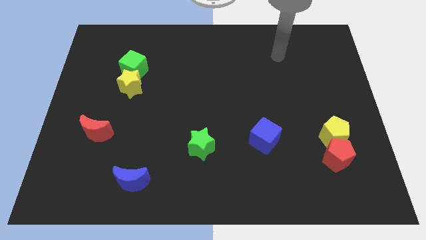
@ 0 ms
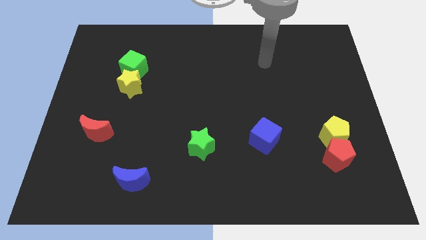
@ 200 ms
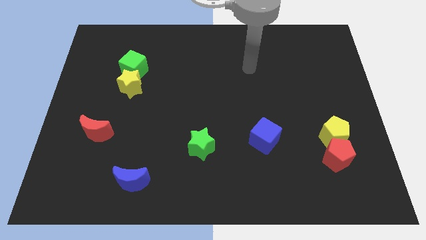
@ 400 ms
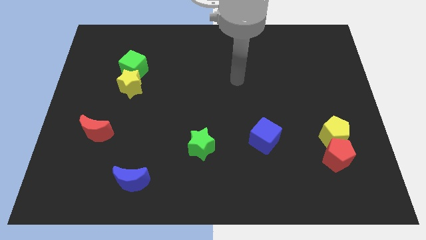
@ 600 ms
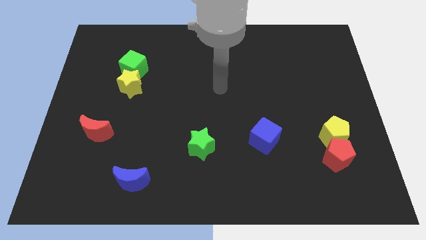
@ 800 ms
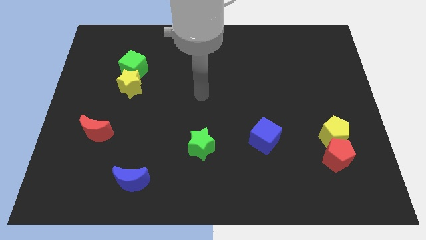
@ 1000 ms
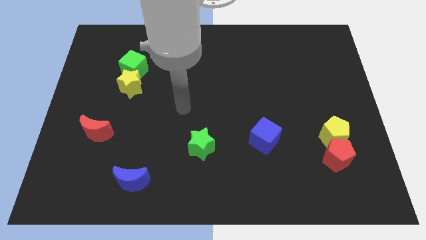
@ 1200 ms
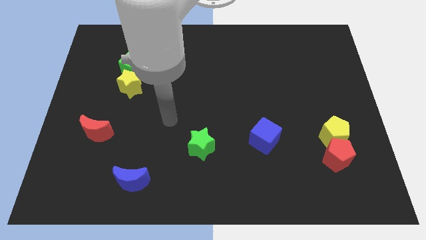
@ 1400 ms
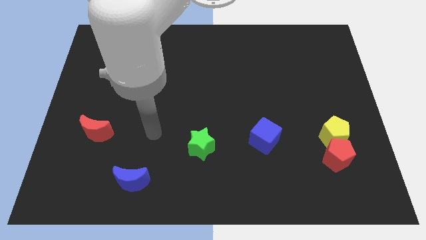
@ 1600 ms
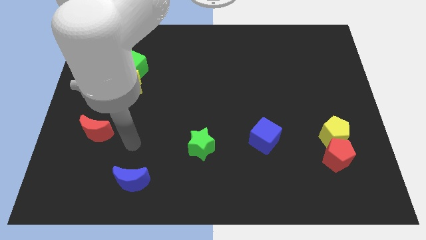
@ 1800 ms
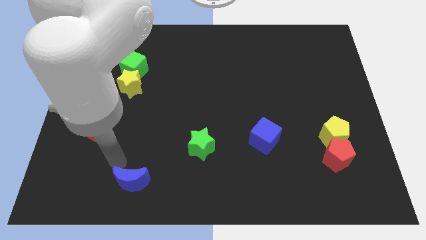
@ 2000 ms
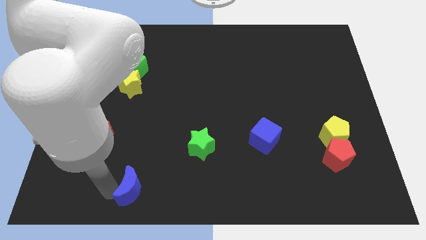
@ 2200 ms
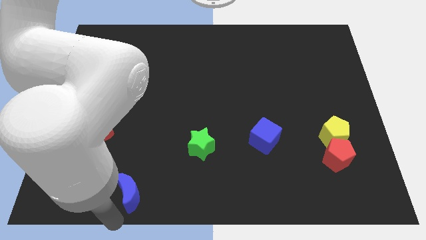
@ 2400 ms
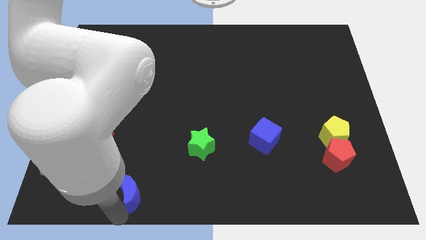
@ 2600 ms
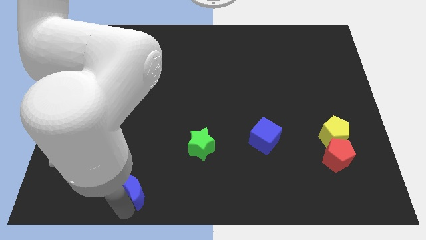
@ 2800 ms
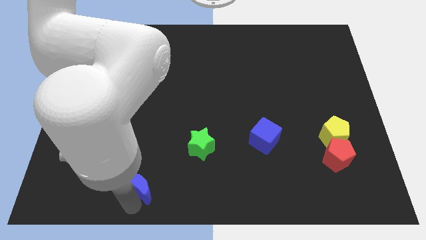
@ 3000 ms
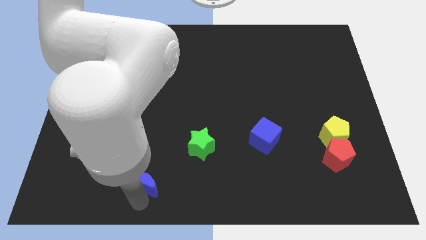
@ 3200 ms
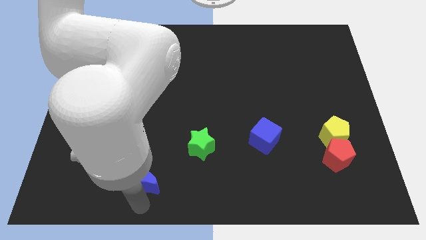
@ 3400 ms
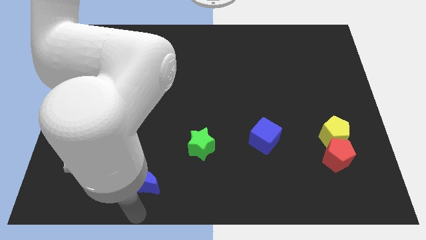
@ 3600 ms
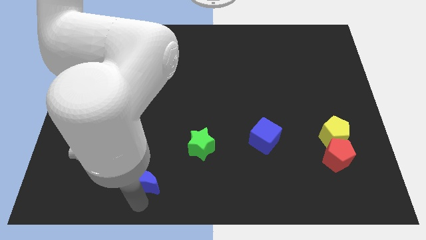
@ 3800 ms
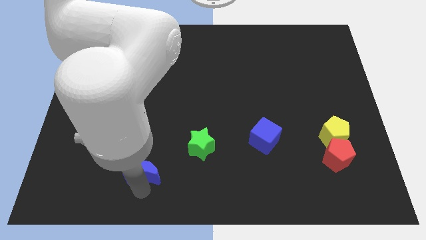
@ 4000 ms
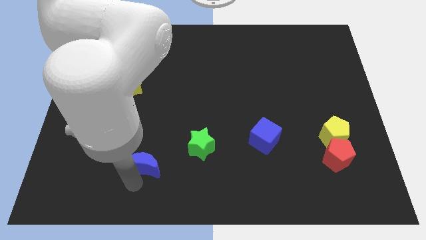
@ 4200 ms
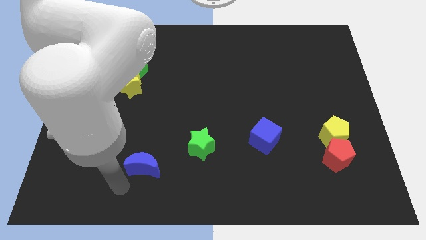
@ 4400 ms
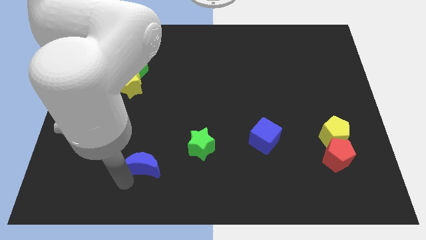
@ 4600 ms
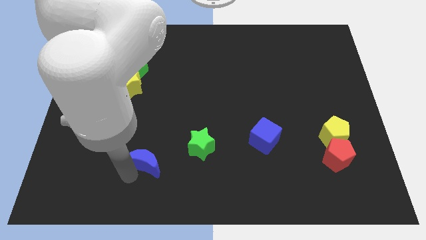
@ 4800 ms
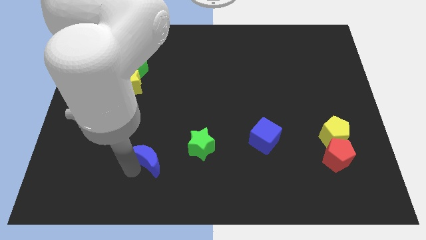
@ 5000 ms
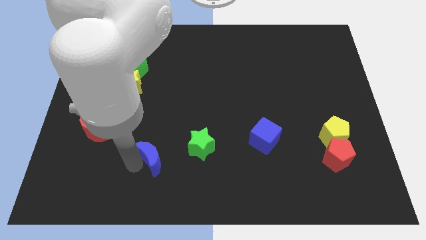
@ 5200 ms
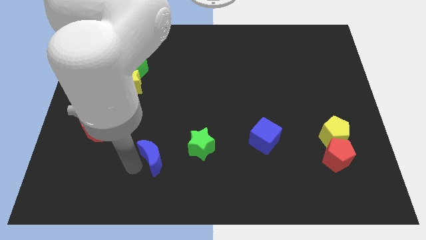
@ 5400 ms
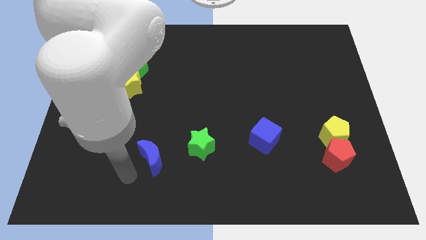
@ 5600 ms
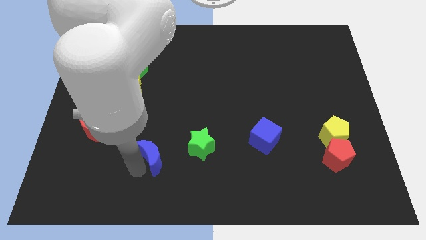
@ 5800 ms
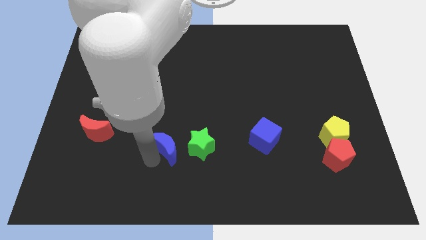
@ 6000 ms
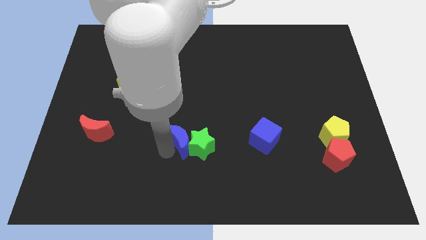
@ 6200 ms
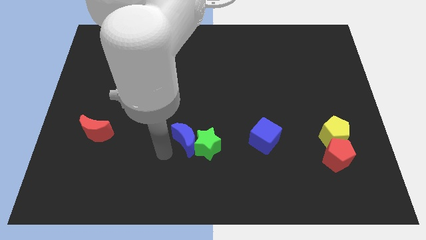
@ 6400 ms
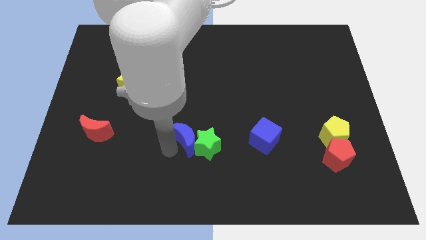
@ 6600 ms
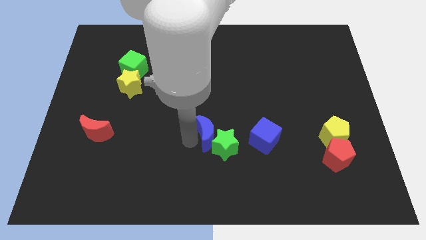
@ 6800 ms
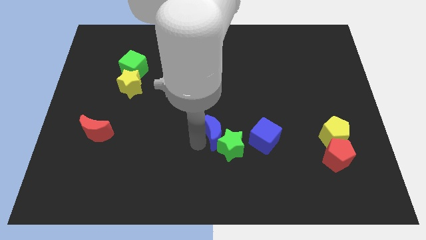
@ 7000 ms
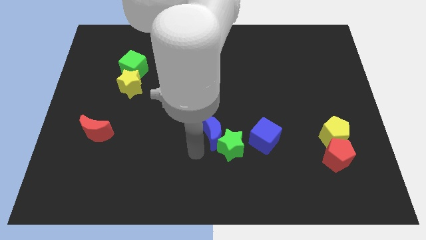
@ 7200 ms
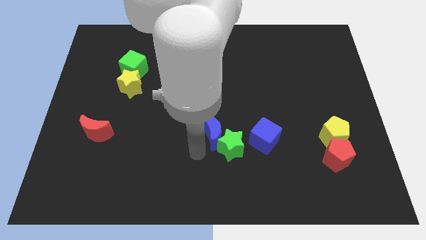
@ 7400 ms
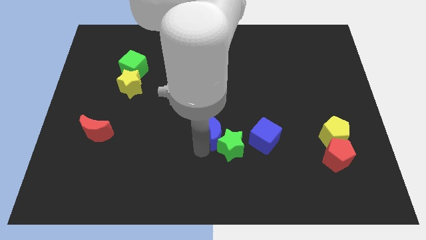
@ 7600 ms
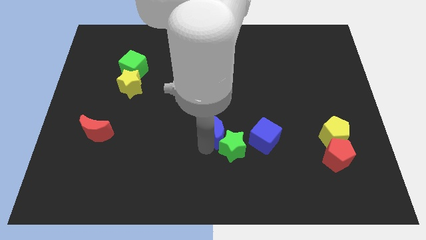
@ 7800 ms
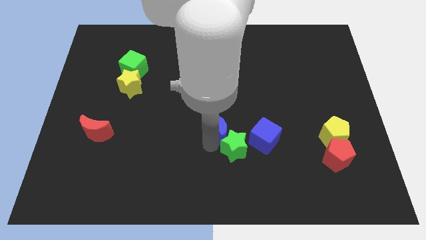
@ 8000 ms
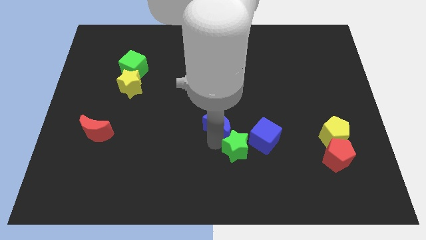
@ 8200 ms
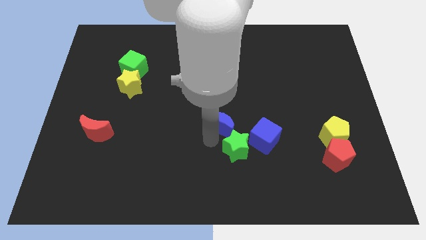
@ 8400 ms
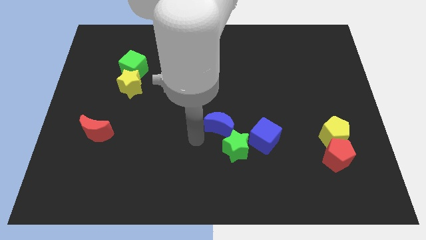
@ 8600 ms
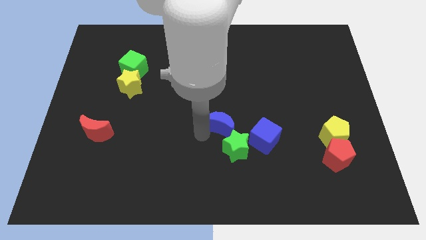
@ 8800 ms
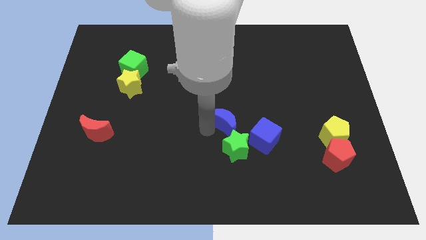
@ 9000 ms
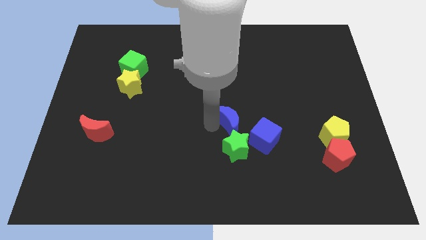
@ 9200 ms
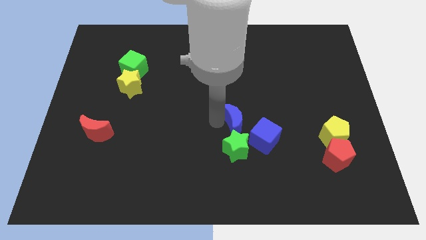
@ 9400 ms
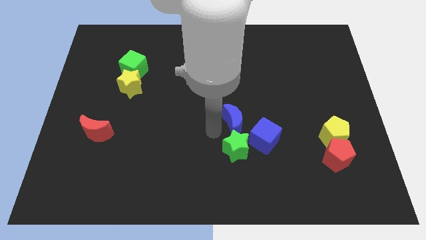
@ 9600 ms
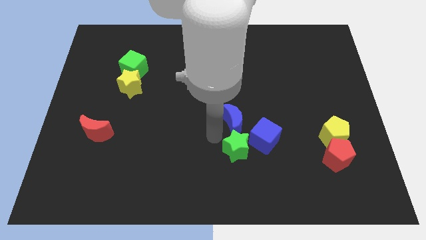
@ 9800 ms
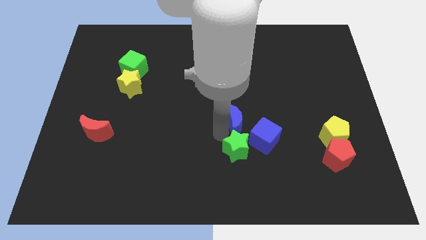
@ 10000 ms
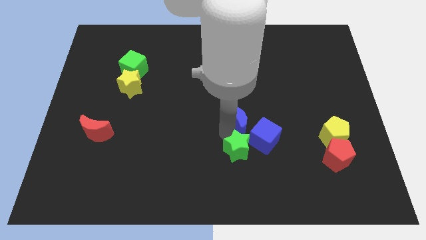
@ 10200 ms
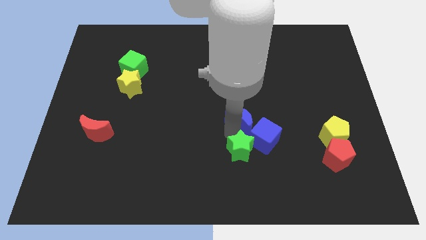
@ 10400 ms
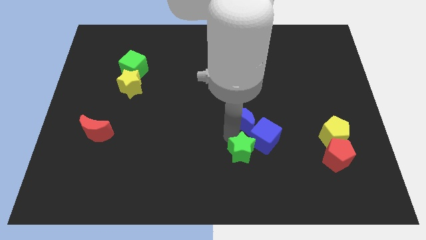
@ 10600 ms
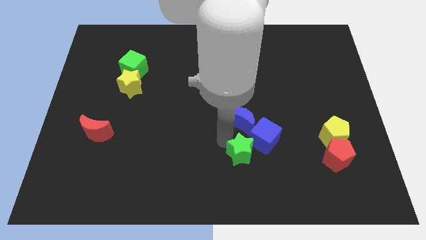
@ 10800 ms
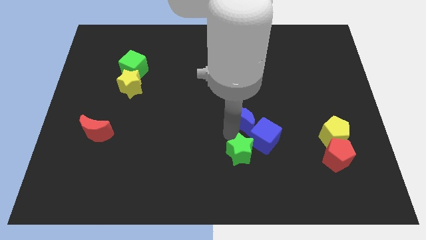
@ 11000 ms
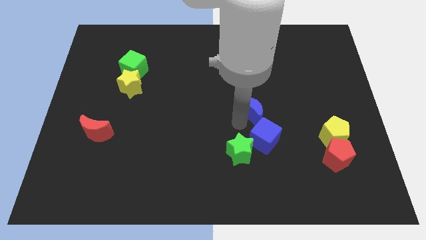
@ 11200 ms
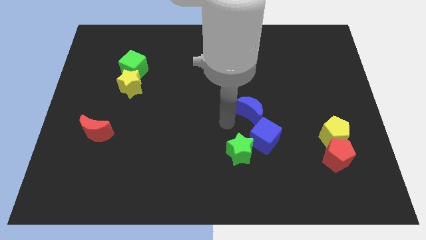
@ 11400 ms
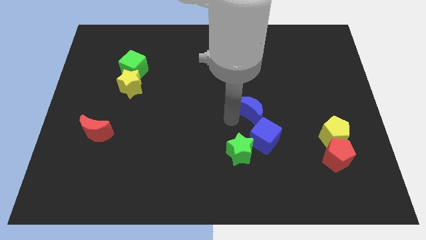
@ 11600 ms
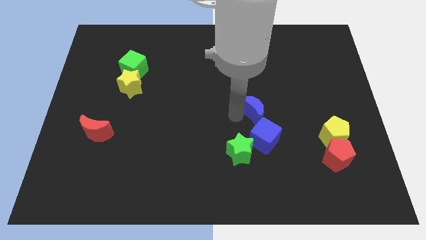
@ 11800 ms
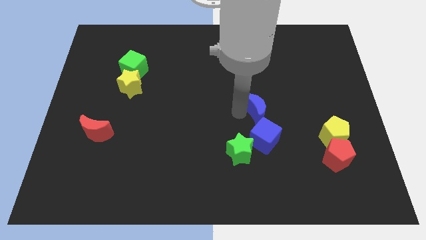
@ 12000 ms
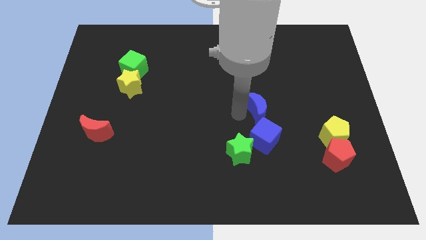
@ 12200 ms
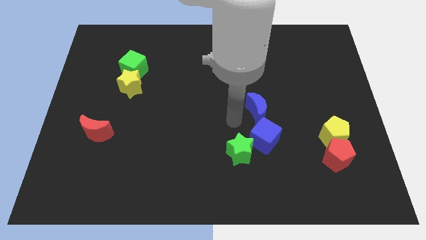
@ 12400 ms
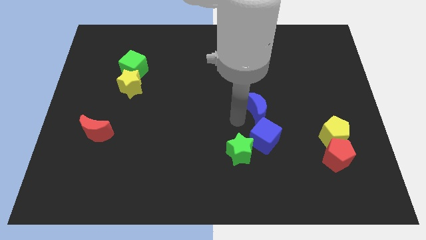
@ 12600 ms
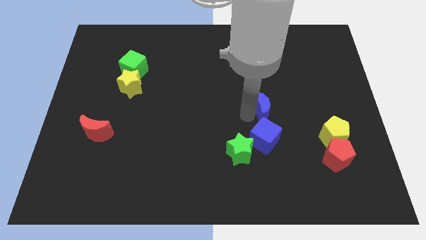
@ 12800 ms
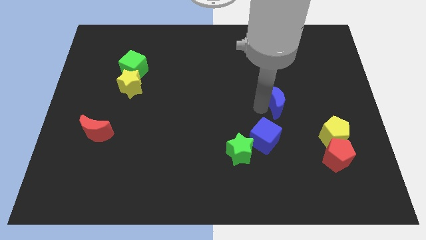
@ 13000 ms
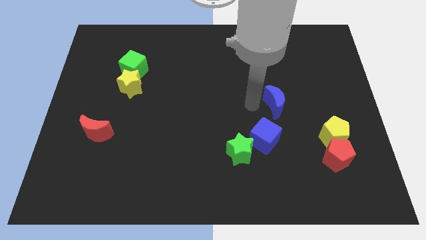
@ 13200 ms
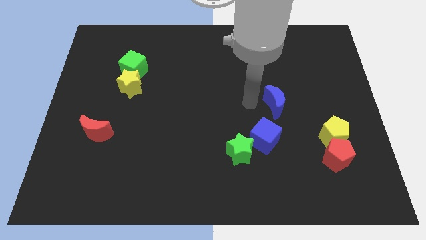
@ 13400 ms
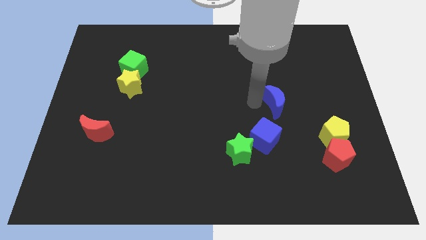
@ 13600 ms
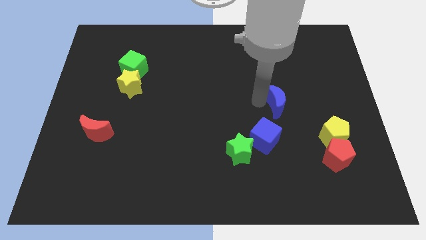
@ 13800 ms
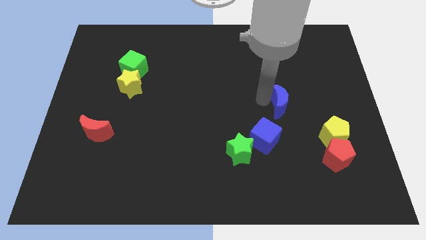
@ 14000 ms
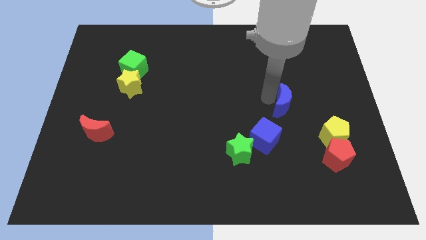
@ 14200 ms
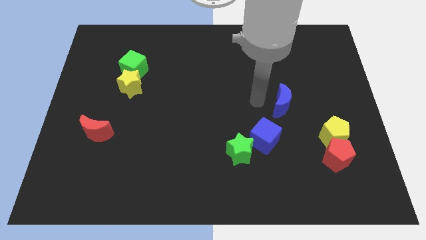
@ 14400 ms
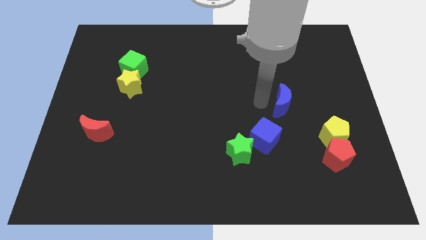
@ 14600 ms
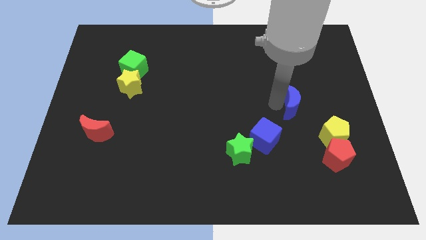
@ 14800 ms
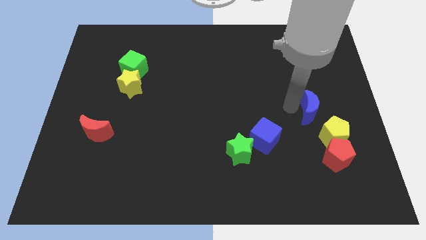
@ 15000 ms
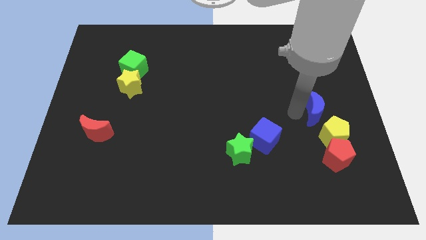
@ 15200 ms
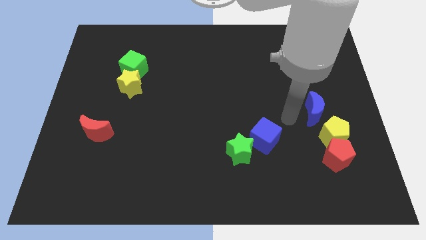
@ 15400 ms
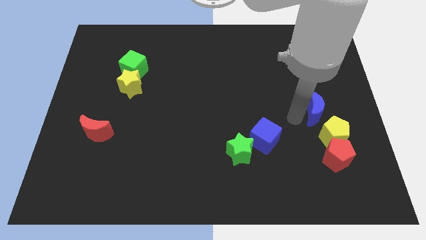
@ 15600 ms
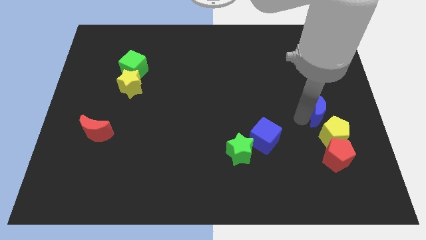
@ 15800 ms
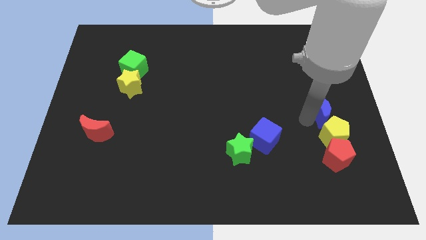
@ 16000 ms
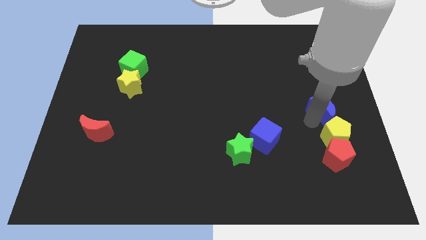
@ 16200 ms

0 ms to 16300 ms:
slide the blue moon to the right side of the board
